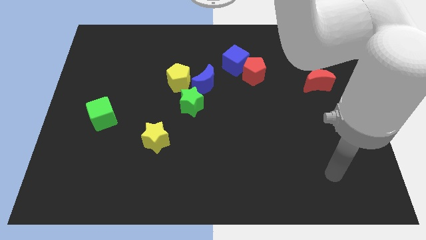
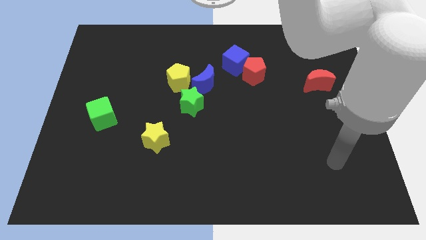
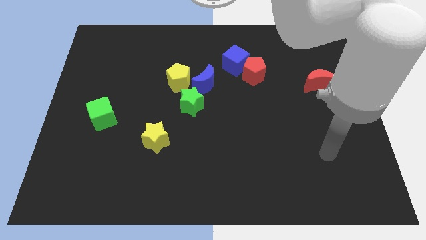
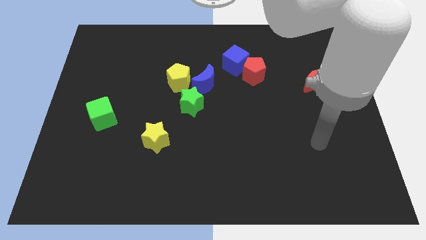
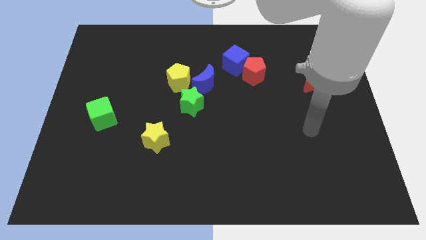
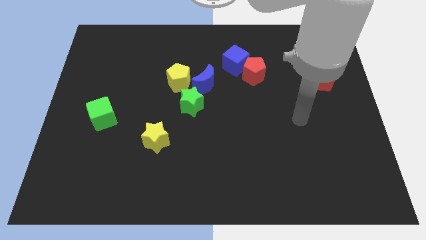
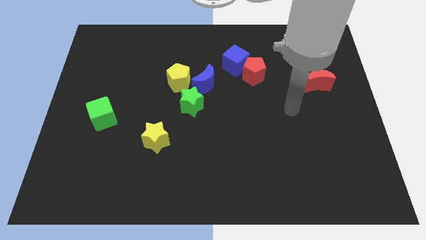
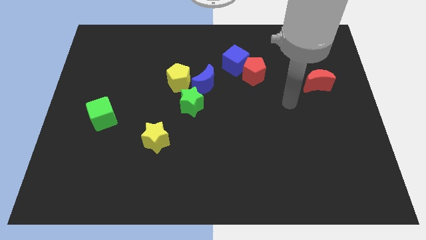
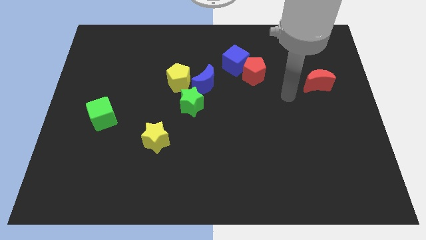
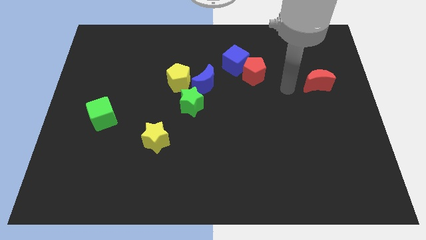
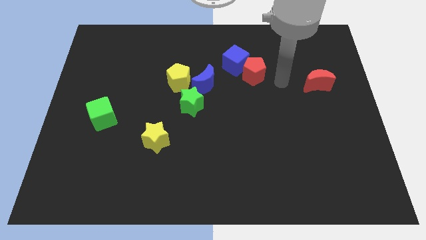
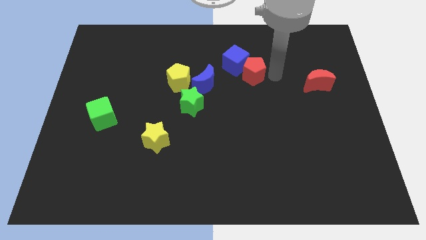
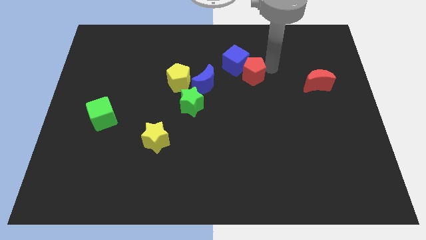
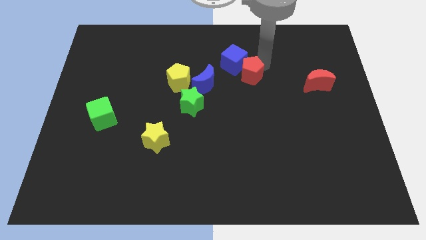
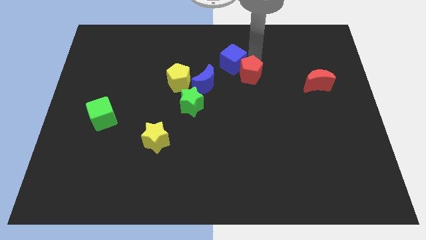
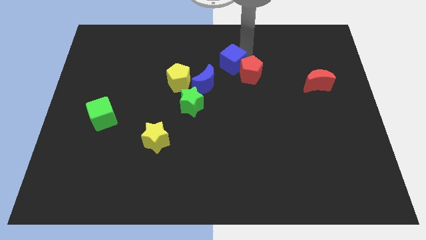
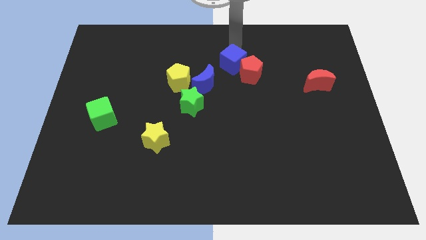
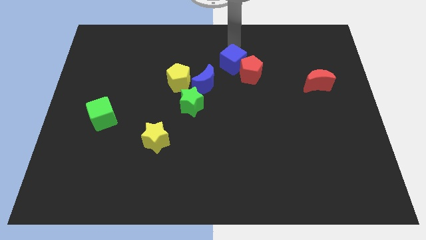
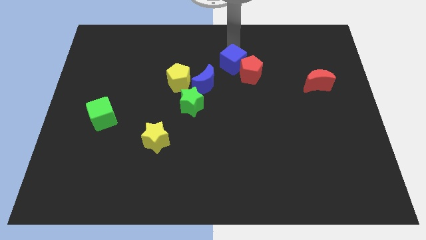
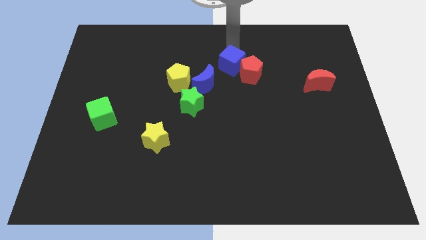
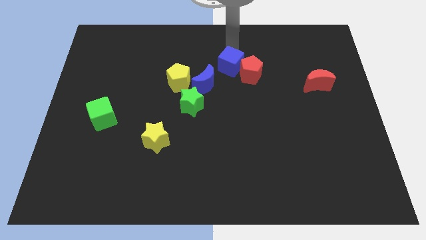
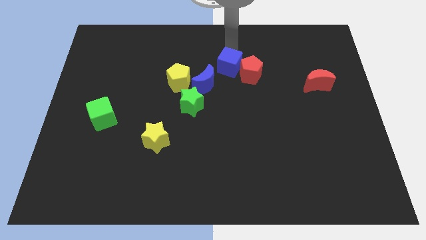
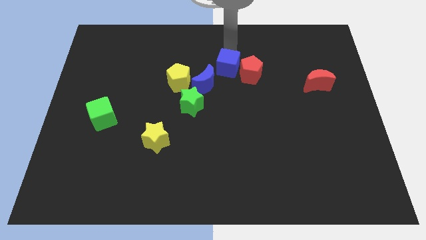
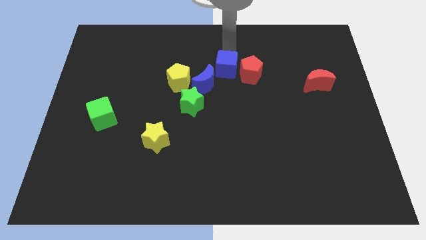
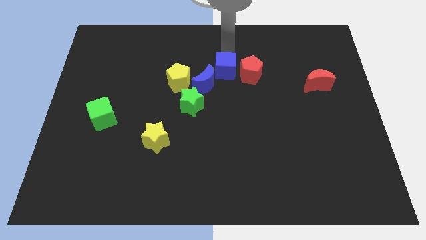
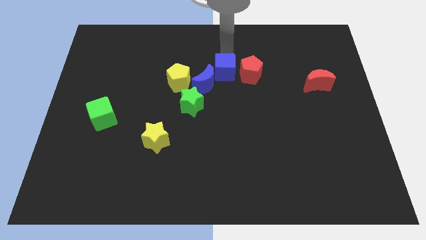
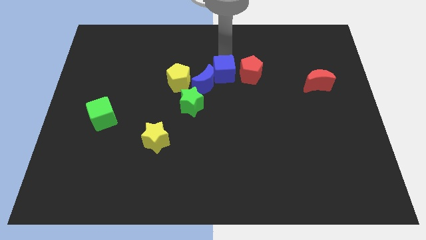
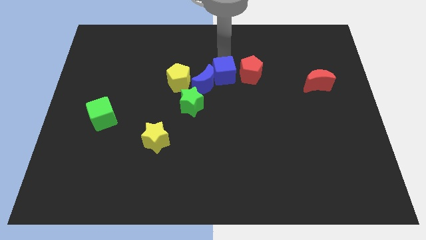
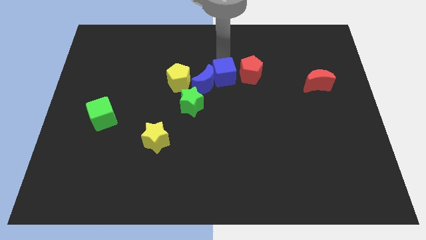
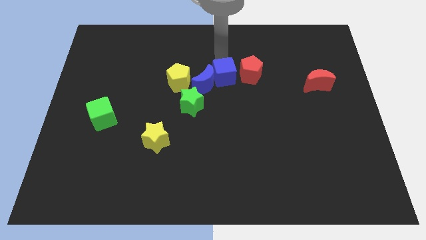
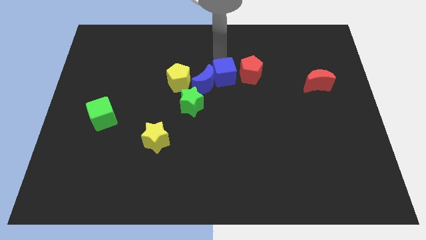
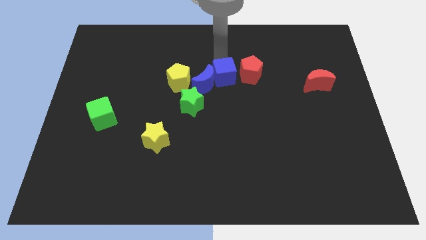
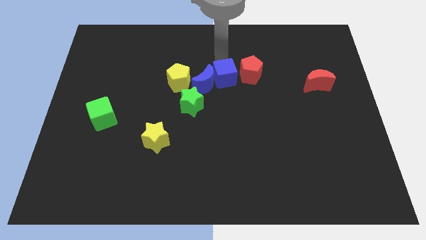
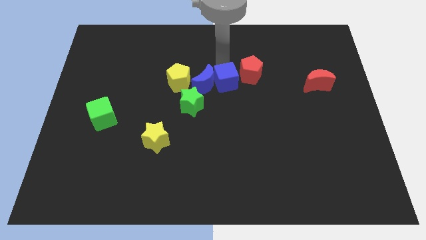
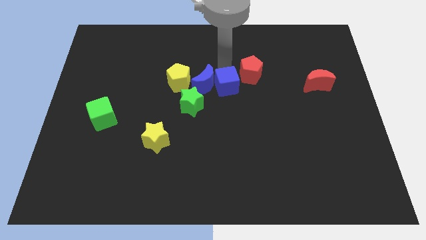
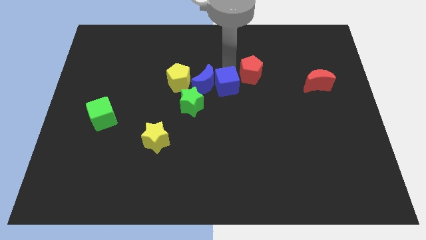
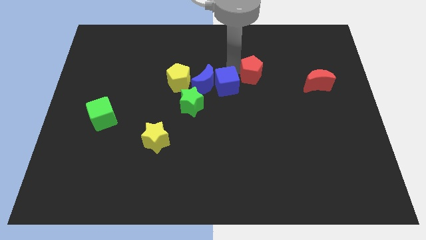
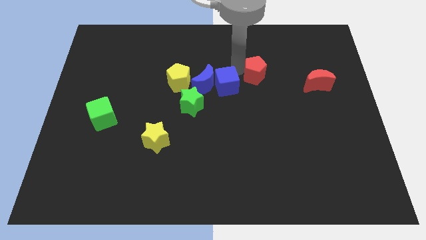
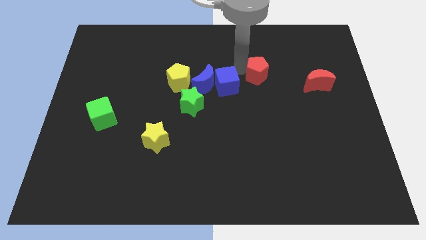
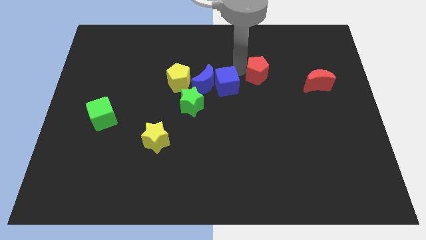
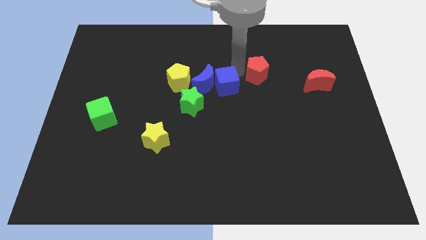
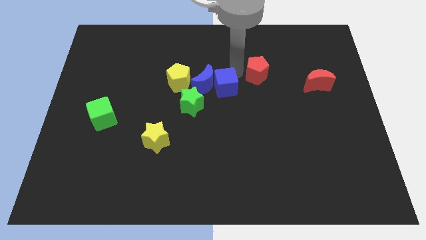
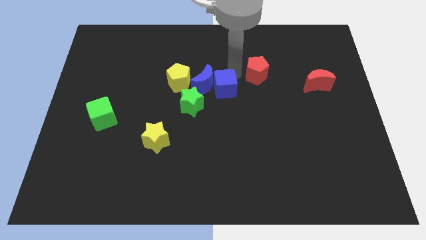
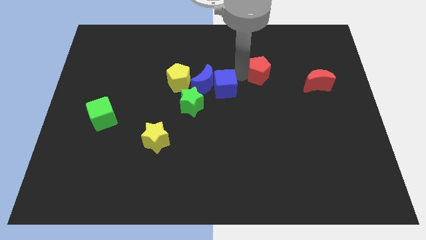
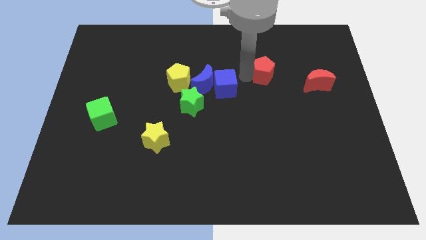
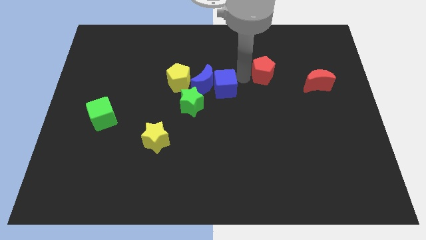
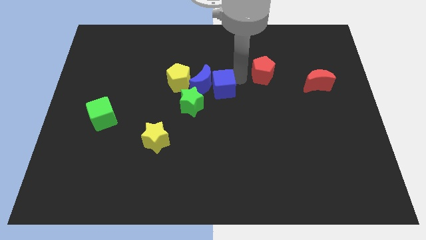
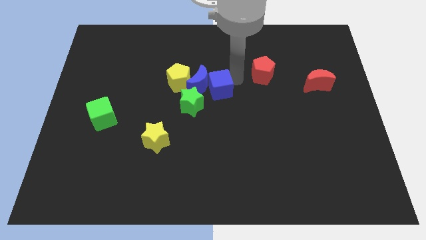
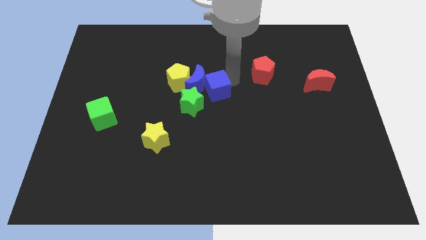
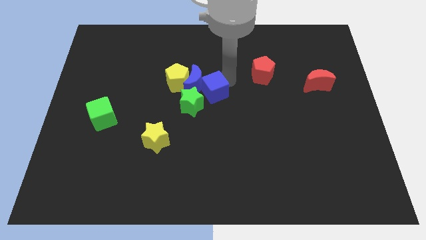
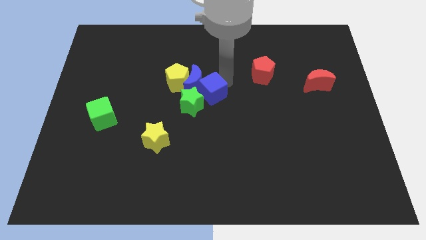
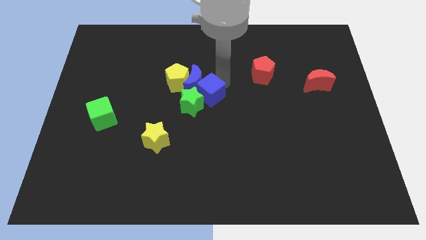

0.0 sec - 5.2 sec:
move the blue cube next to the green star

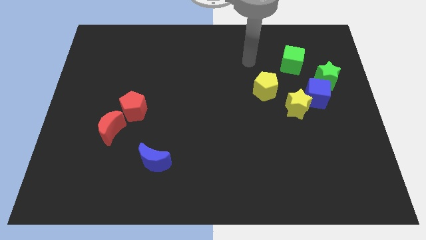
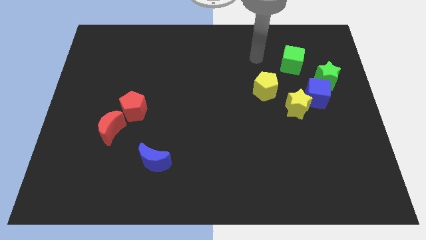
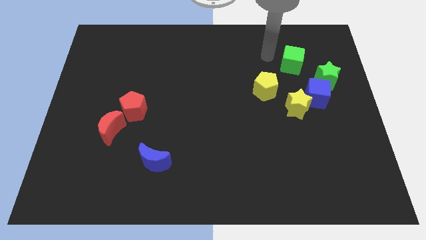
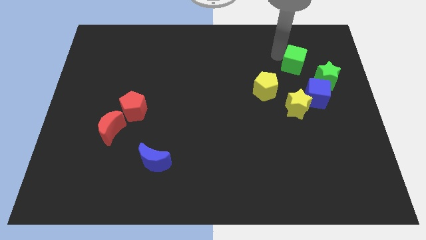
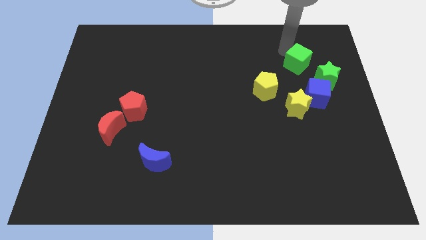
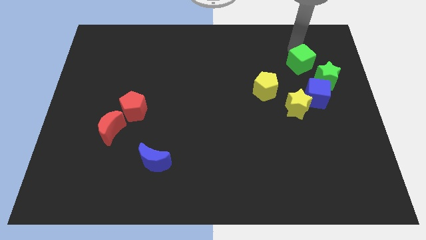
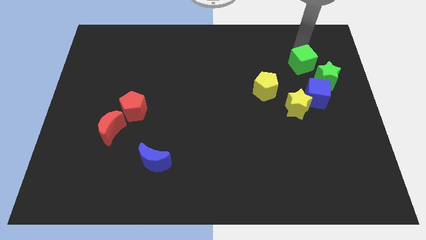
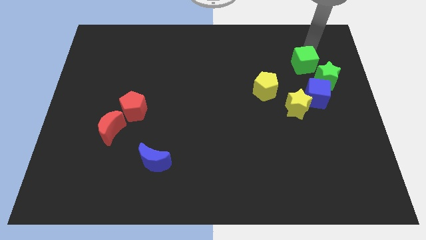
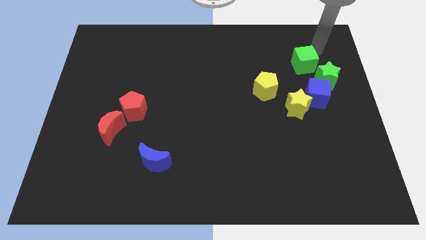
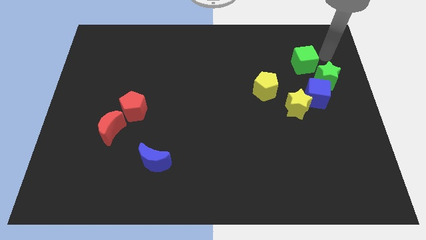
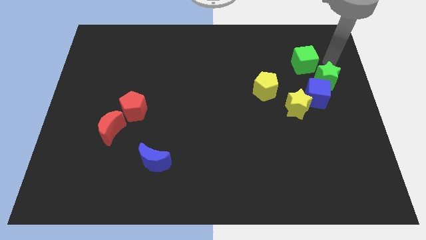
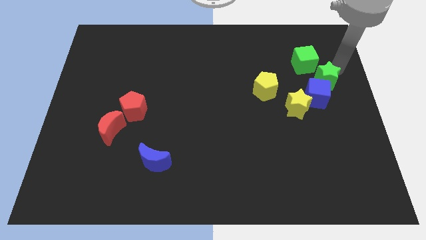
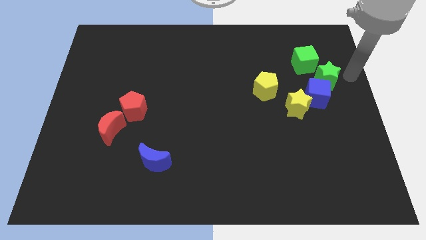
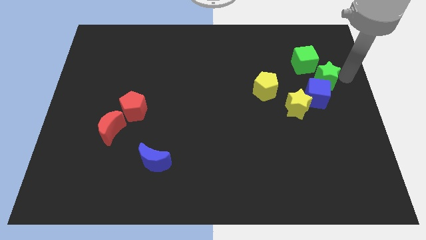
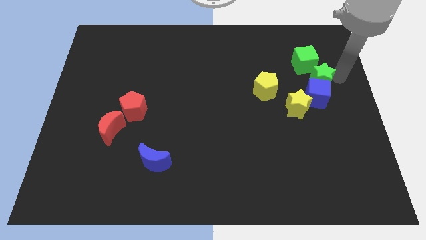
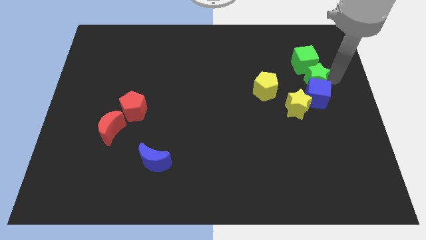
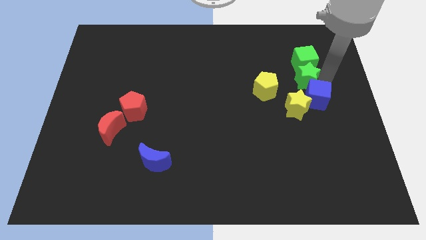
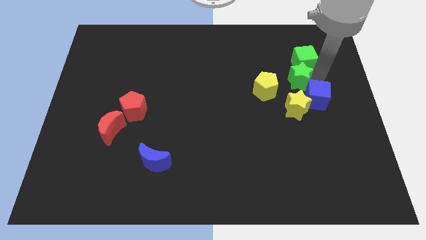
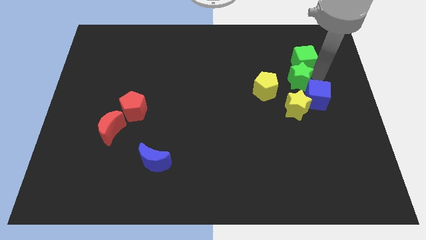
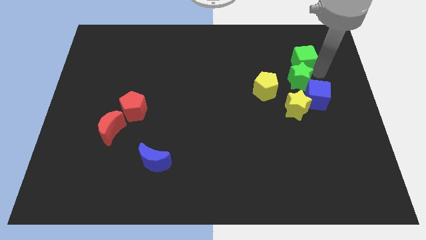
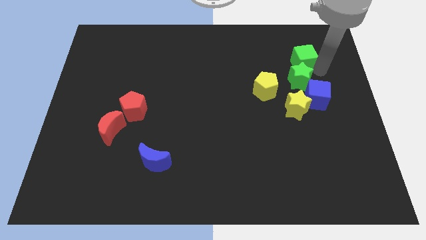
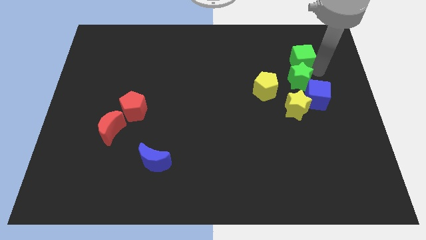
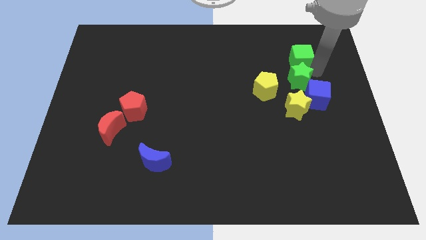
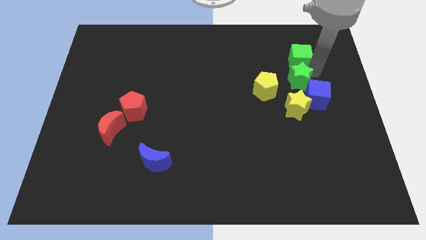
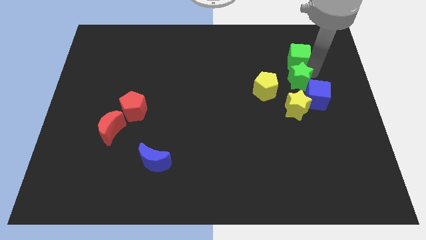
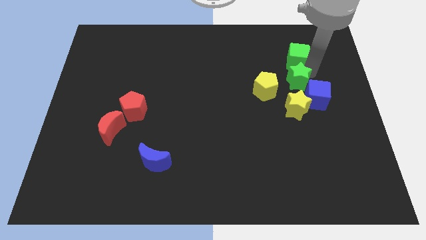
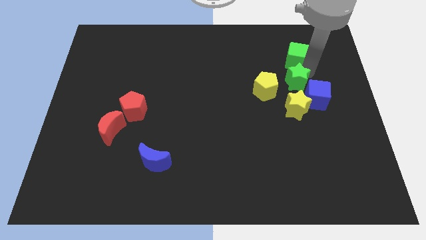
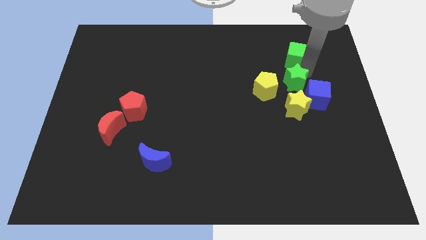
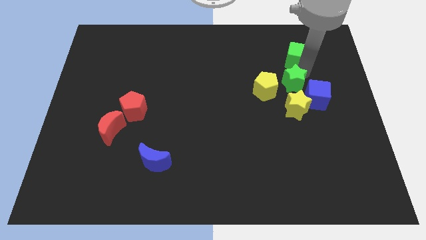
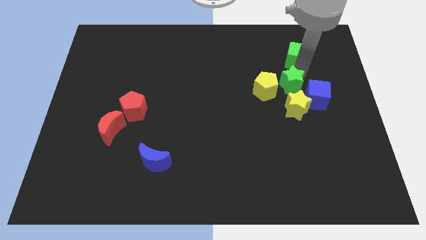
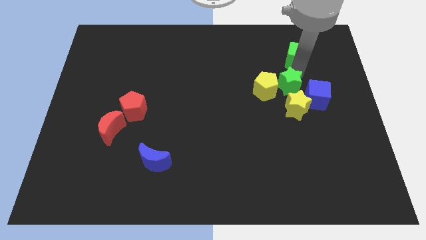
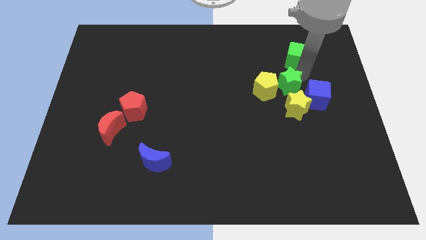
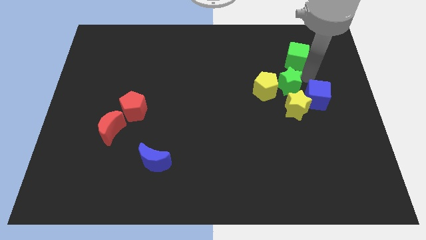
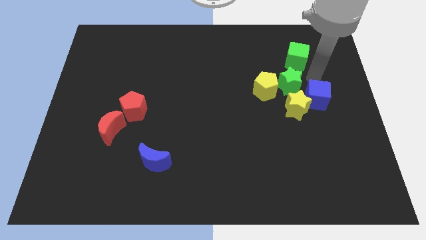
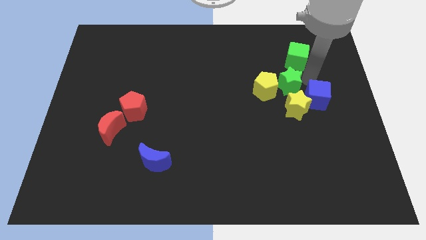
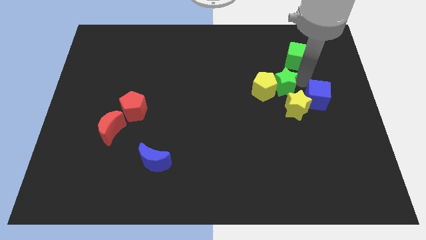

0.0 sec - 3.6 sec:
move the green star close to the yellow pentagon
